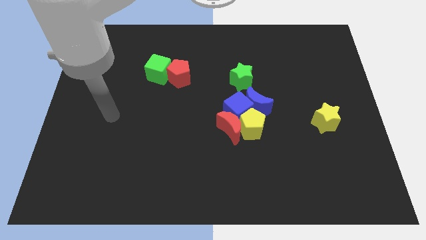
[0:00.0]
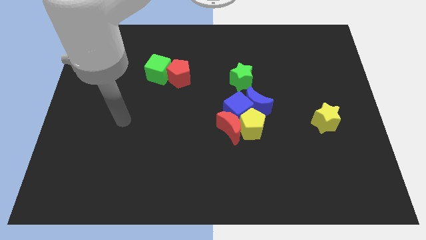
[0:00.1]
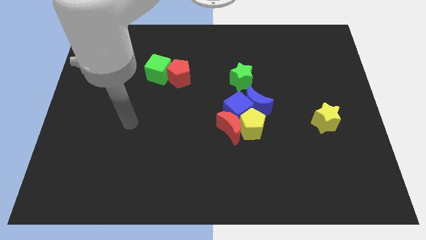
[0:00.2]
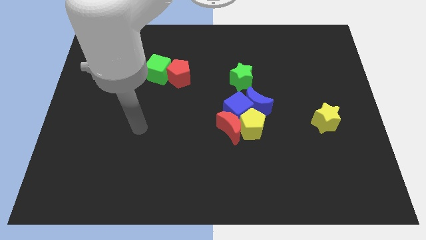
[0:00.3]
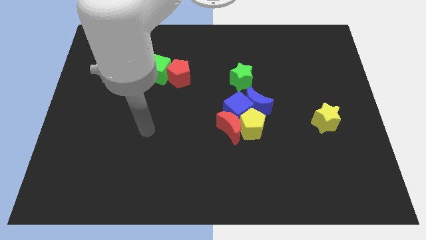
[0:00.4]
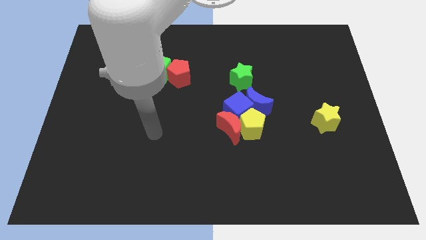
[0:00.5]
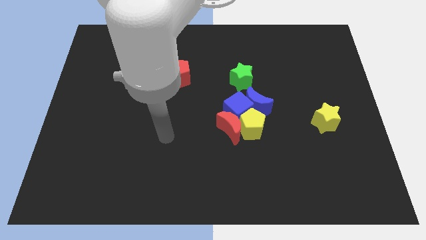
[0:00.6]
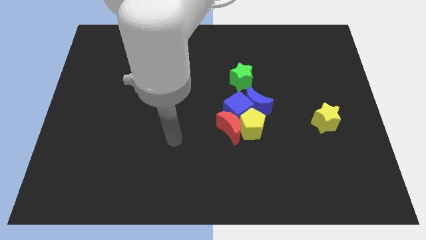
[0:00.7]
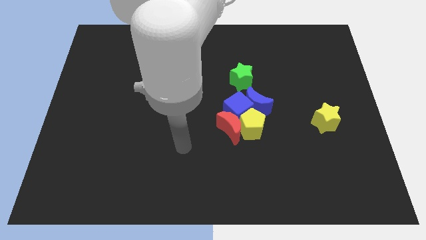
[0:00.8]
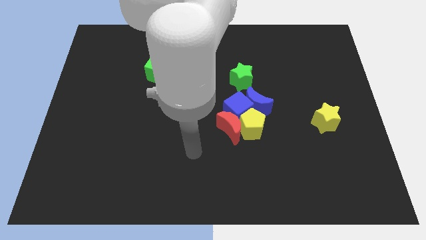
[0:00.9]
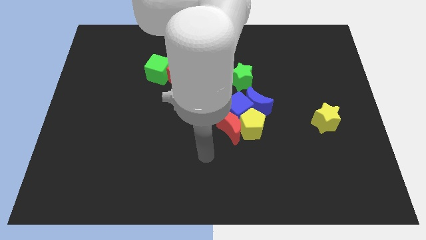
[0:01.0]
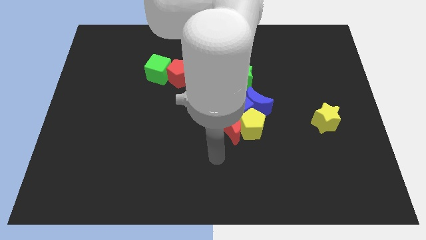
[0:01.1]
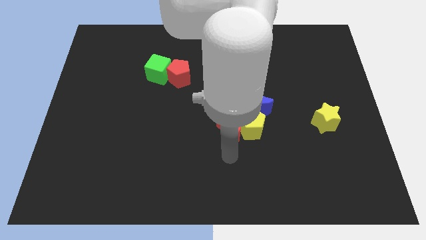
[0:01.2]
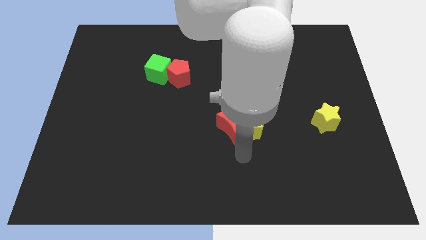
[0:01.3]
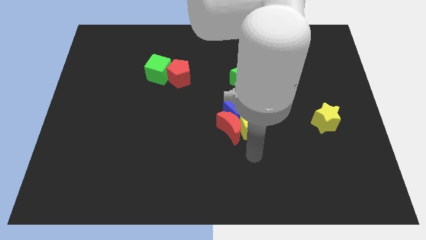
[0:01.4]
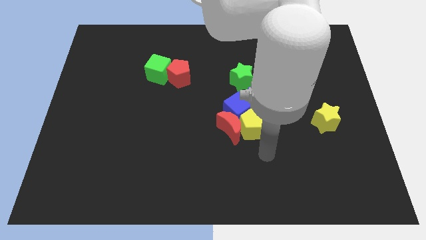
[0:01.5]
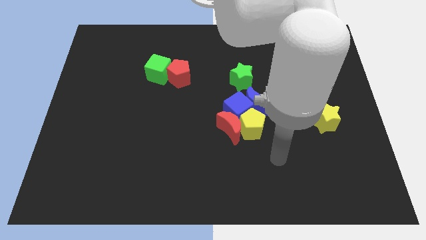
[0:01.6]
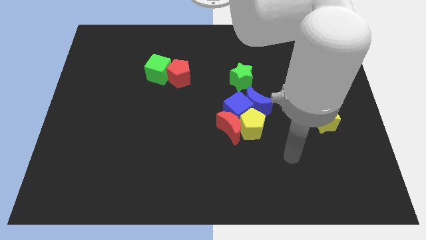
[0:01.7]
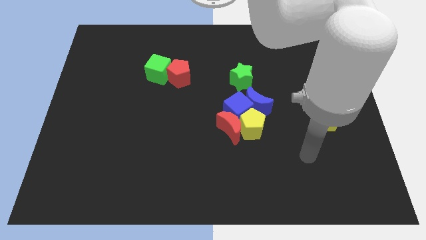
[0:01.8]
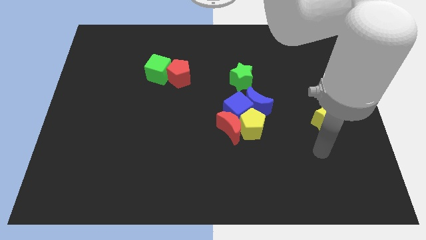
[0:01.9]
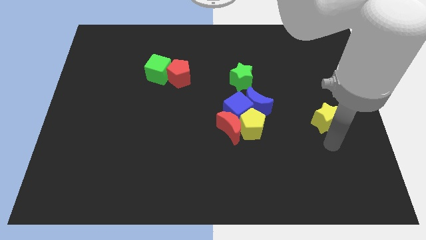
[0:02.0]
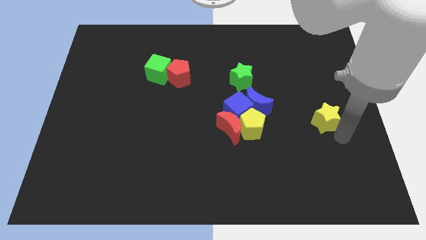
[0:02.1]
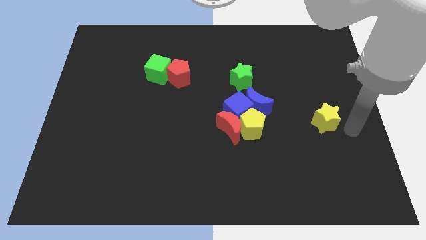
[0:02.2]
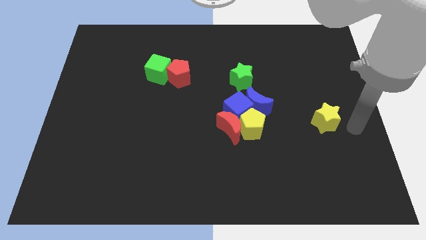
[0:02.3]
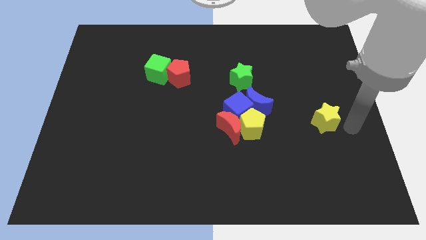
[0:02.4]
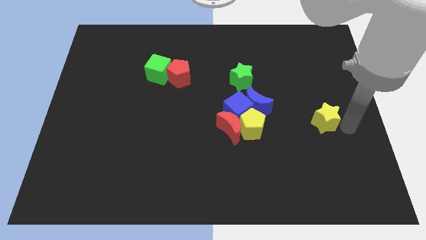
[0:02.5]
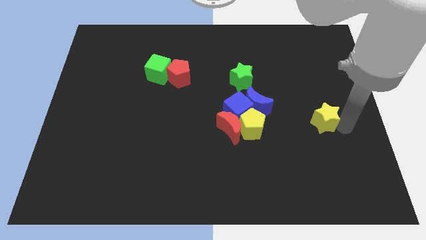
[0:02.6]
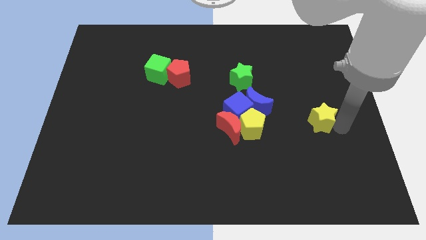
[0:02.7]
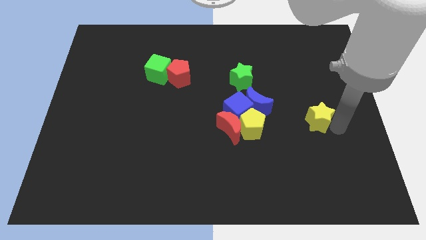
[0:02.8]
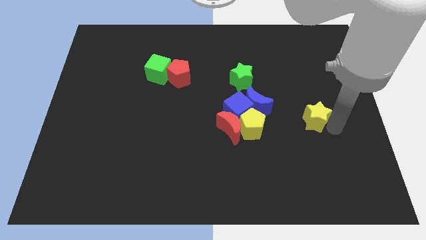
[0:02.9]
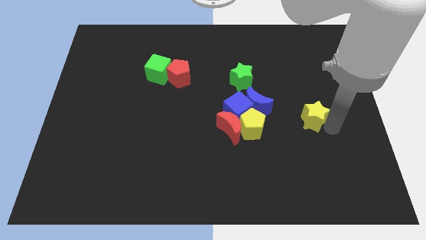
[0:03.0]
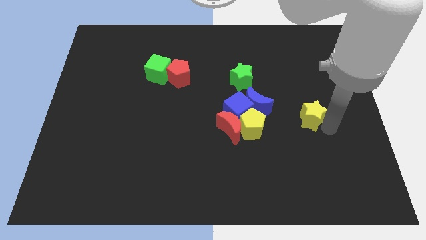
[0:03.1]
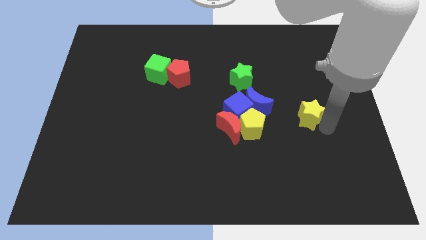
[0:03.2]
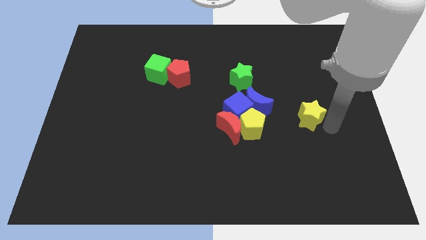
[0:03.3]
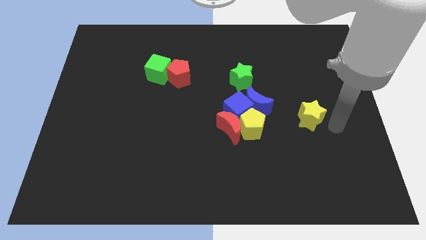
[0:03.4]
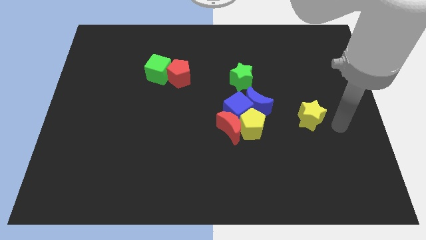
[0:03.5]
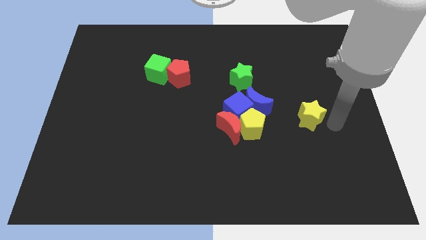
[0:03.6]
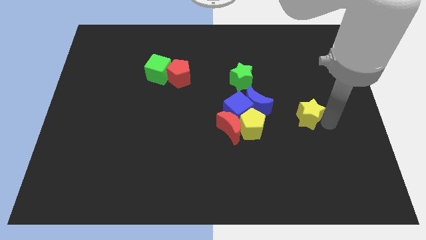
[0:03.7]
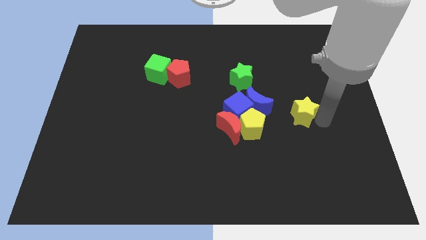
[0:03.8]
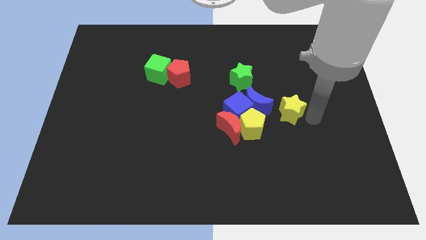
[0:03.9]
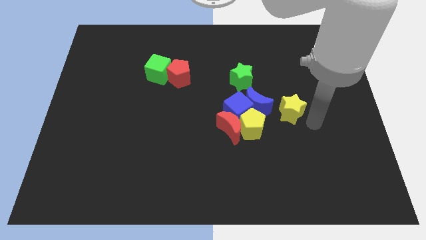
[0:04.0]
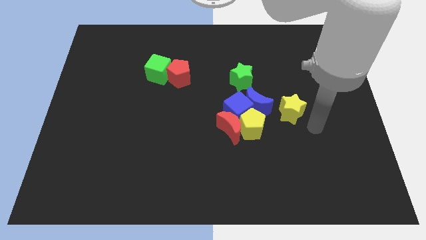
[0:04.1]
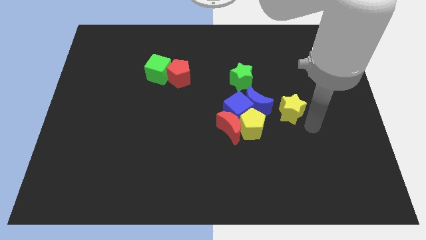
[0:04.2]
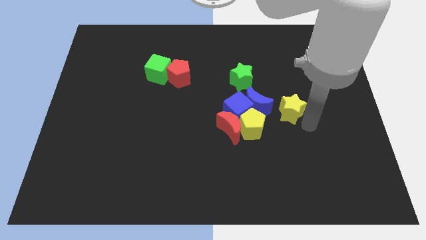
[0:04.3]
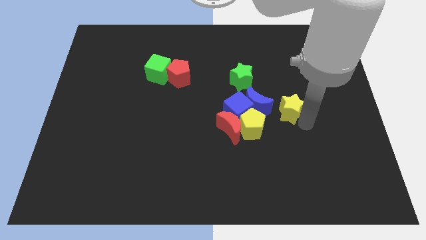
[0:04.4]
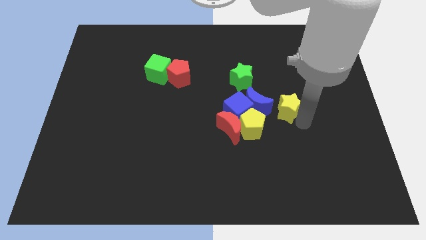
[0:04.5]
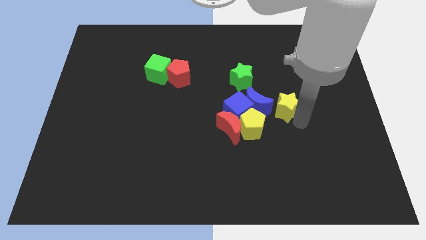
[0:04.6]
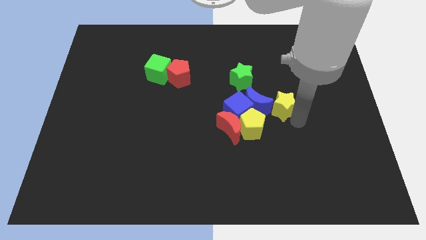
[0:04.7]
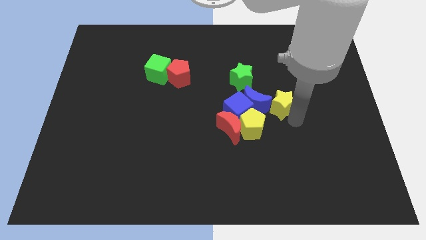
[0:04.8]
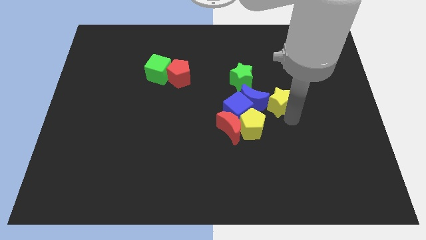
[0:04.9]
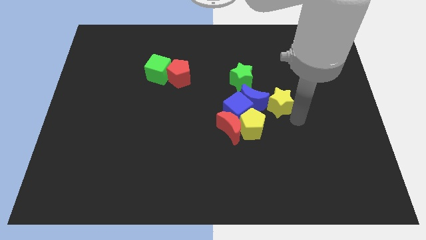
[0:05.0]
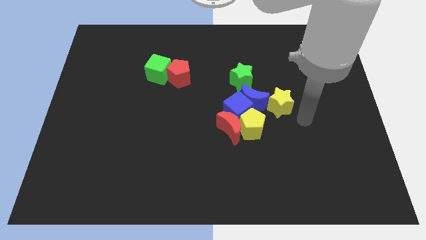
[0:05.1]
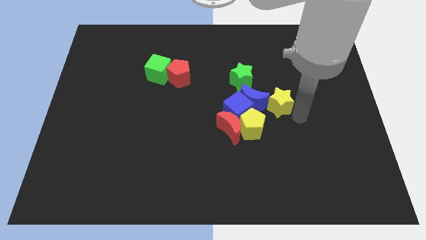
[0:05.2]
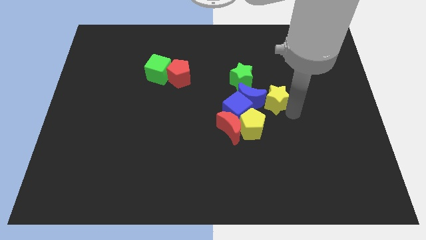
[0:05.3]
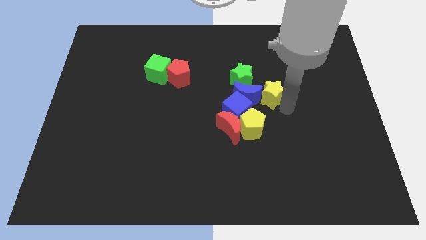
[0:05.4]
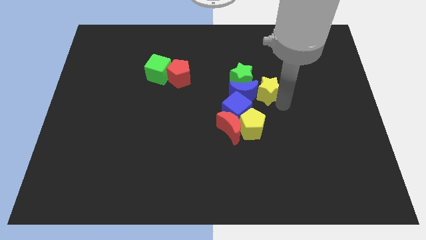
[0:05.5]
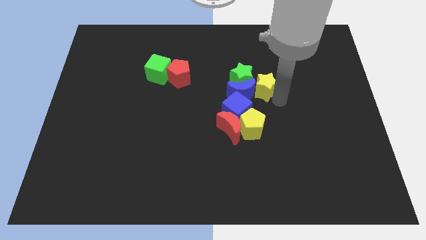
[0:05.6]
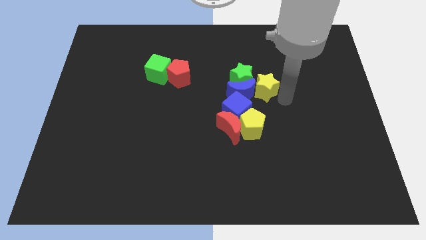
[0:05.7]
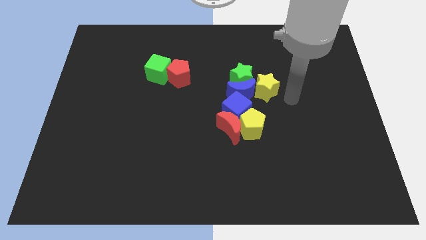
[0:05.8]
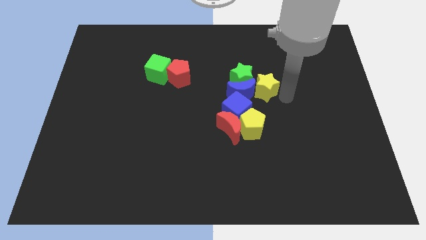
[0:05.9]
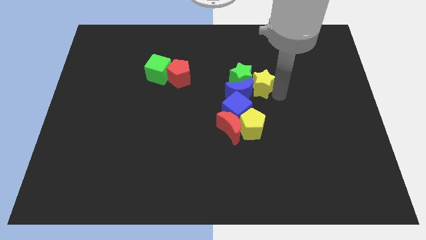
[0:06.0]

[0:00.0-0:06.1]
slide the yellow star towards the green star

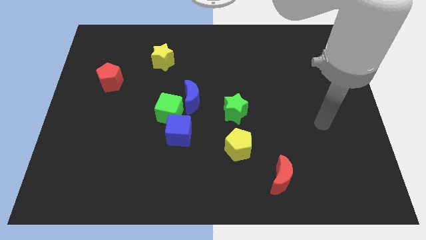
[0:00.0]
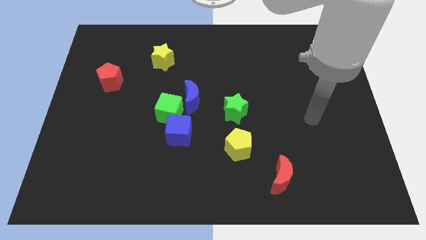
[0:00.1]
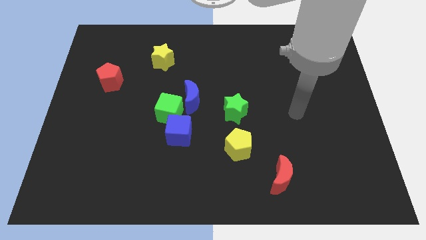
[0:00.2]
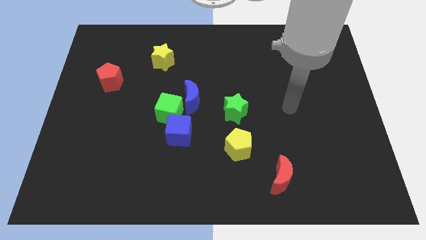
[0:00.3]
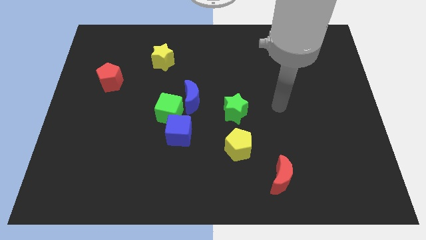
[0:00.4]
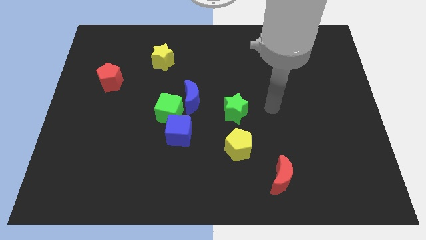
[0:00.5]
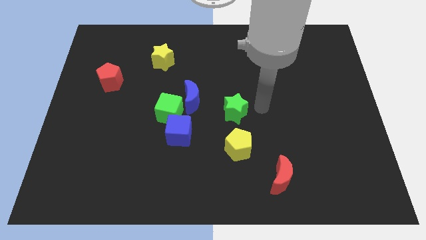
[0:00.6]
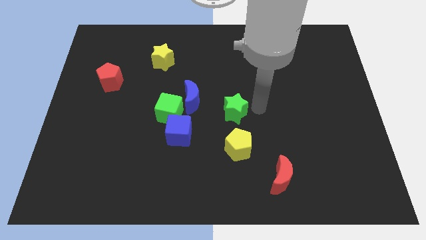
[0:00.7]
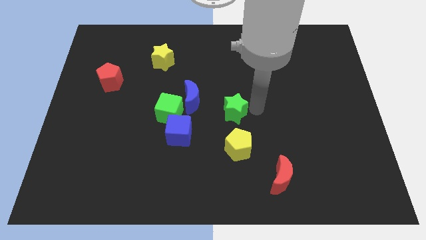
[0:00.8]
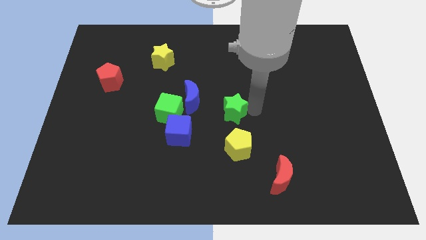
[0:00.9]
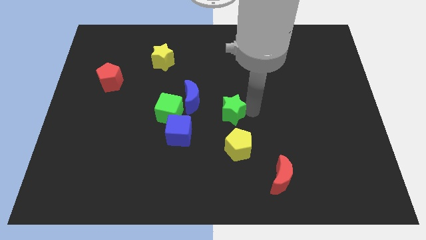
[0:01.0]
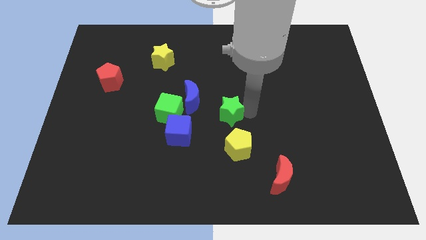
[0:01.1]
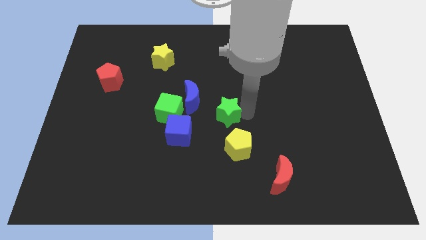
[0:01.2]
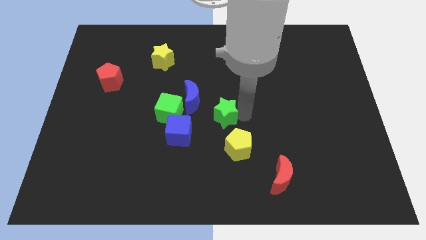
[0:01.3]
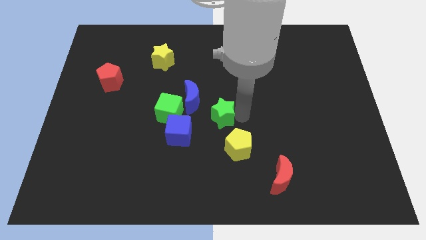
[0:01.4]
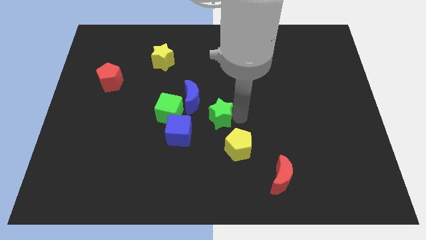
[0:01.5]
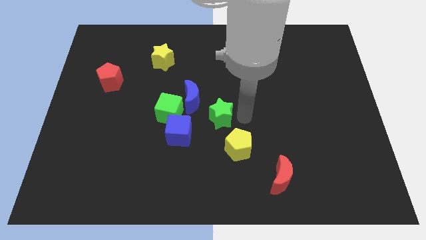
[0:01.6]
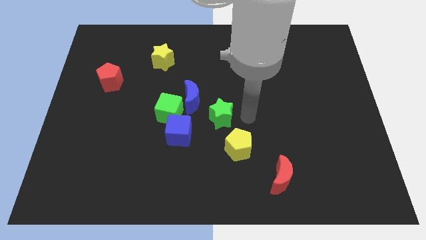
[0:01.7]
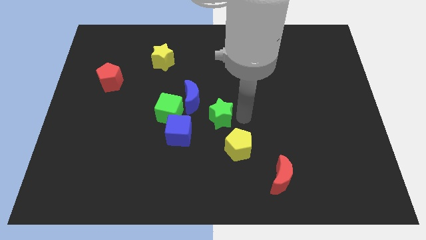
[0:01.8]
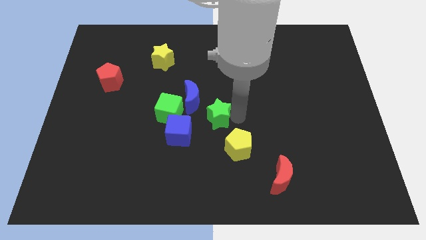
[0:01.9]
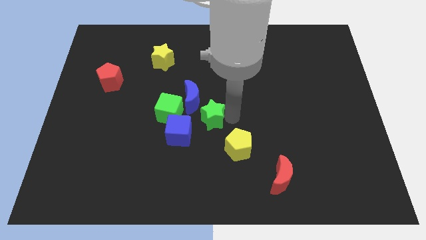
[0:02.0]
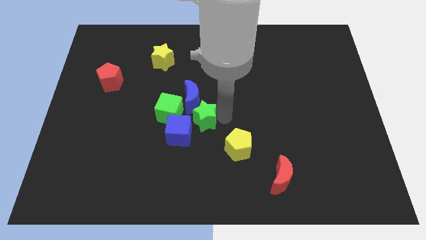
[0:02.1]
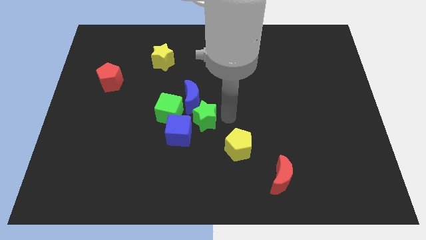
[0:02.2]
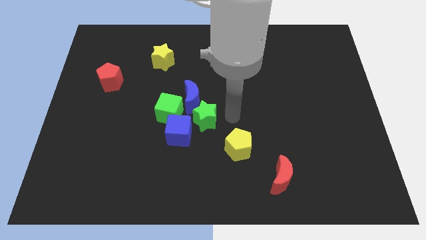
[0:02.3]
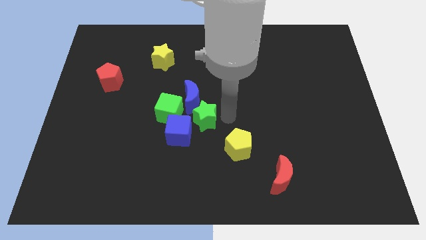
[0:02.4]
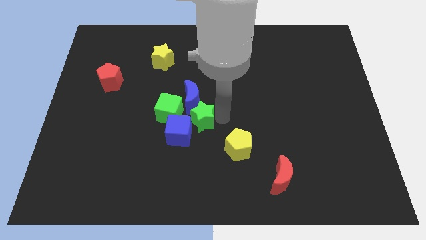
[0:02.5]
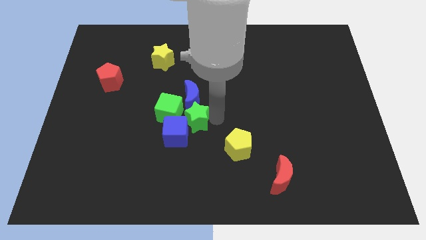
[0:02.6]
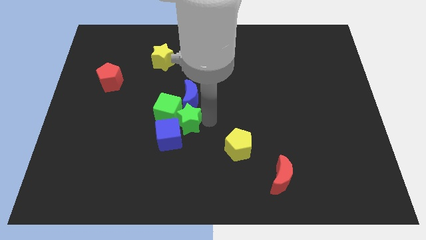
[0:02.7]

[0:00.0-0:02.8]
put the green star towards the green cube
